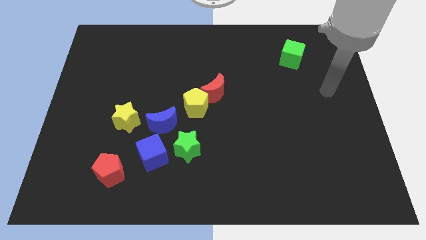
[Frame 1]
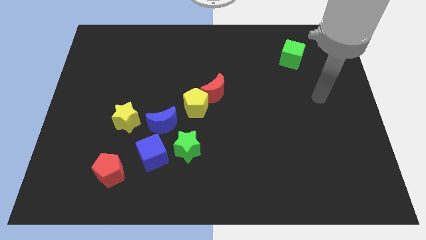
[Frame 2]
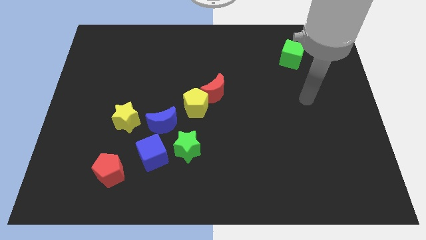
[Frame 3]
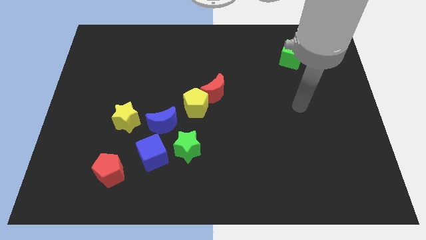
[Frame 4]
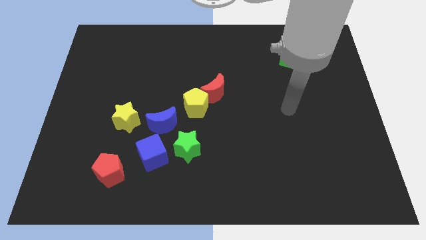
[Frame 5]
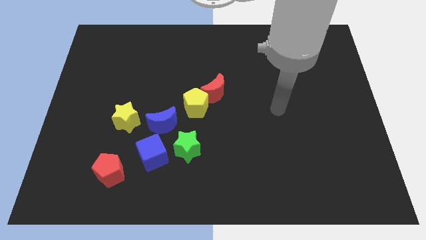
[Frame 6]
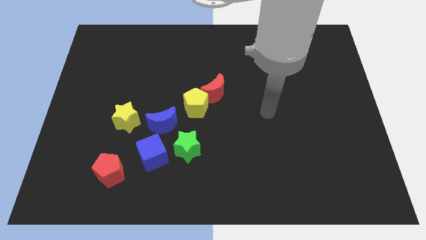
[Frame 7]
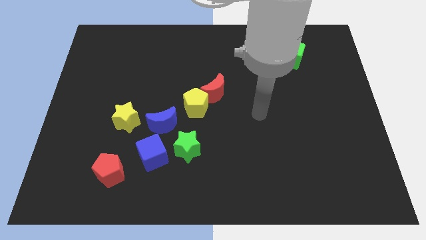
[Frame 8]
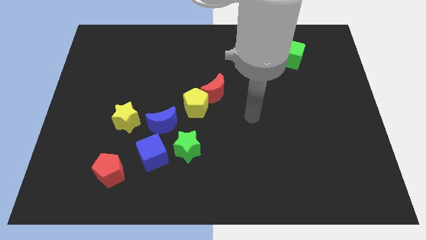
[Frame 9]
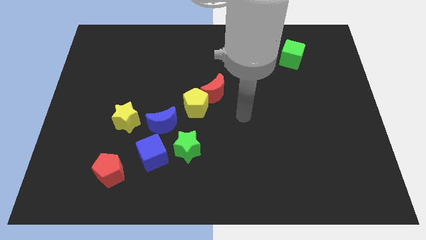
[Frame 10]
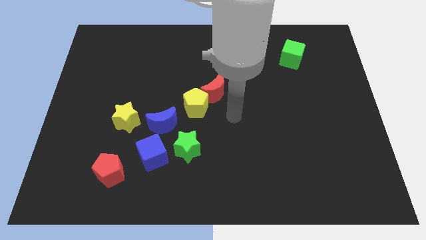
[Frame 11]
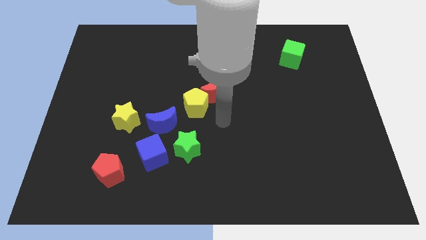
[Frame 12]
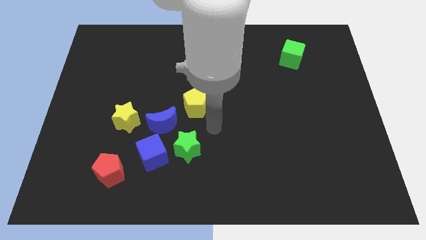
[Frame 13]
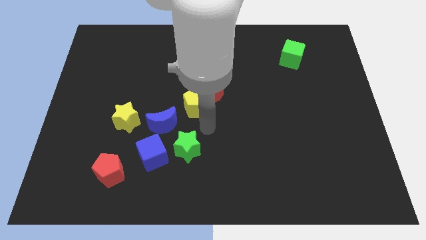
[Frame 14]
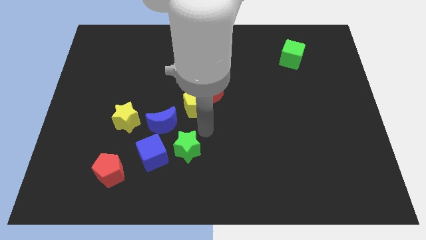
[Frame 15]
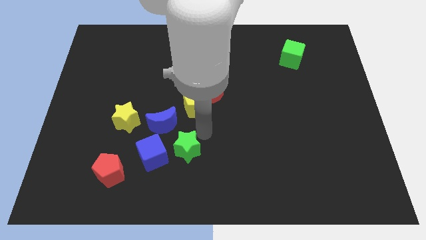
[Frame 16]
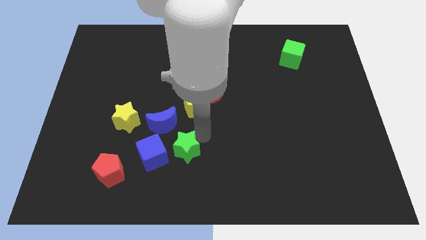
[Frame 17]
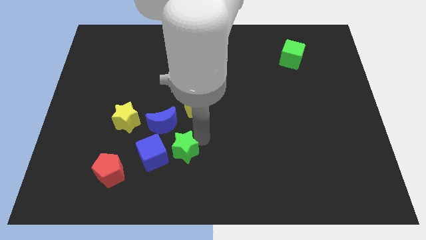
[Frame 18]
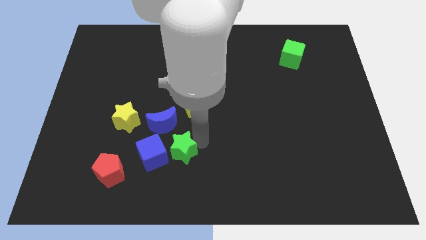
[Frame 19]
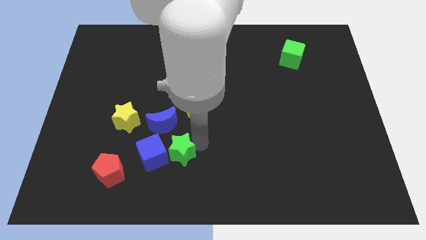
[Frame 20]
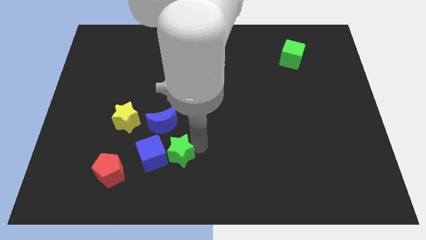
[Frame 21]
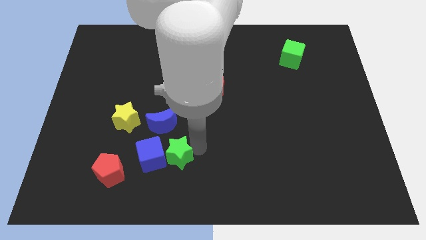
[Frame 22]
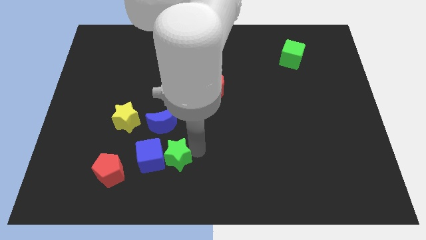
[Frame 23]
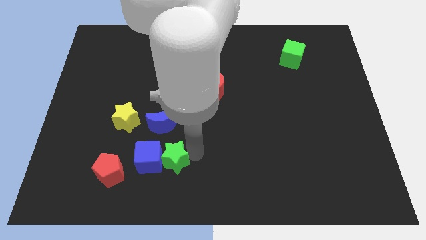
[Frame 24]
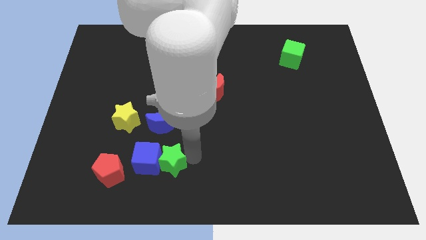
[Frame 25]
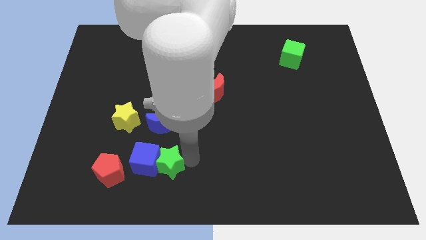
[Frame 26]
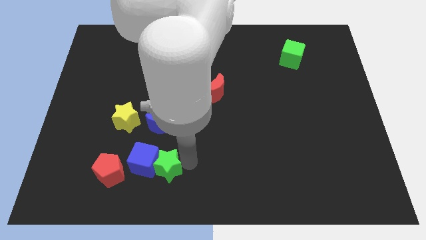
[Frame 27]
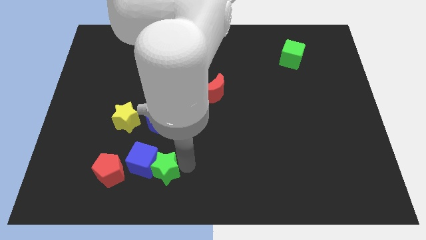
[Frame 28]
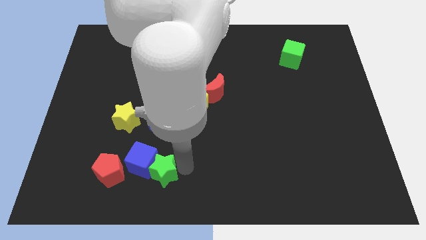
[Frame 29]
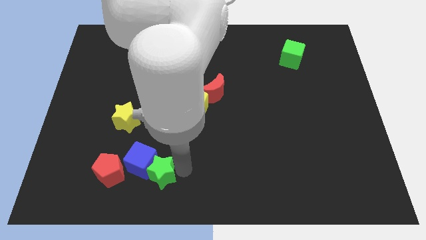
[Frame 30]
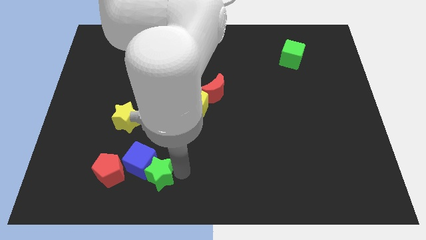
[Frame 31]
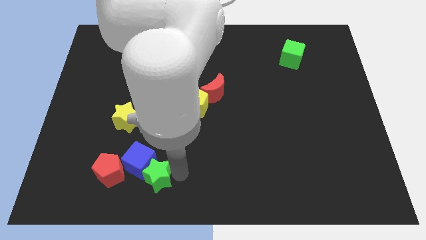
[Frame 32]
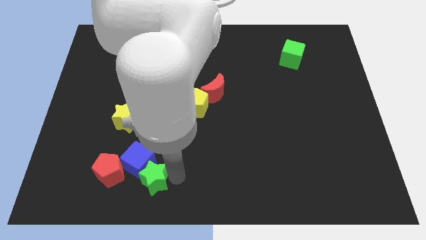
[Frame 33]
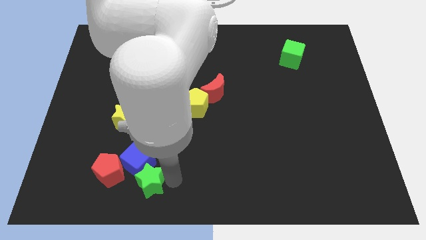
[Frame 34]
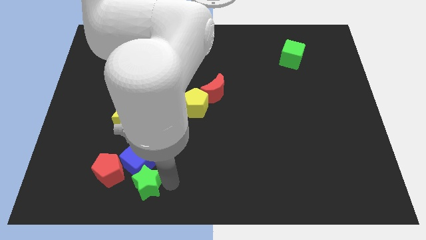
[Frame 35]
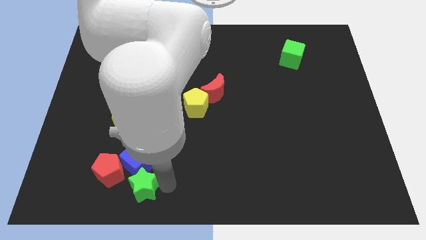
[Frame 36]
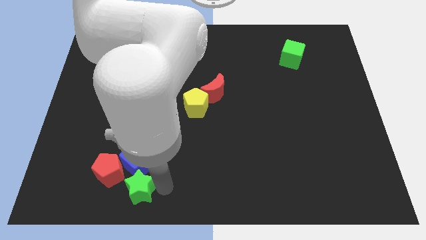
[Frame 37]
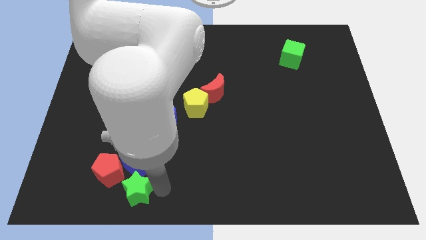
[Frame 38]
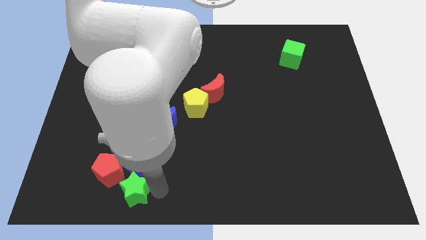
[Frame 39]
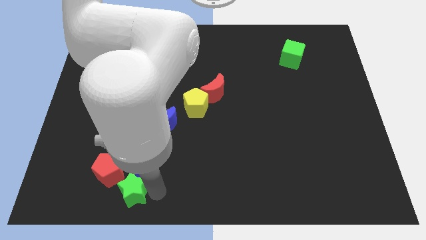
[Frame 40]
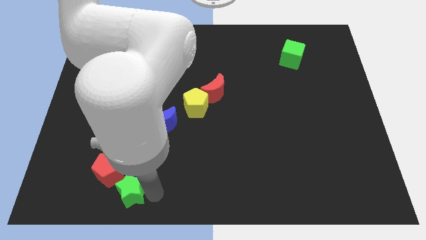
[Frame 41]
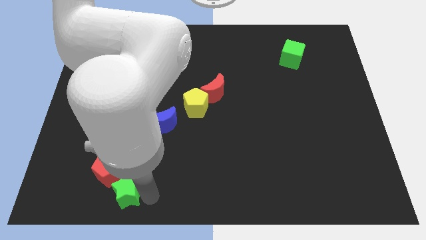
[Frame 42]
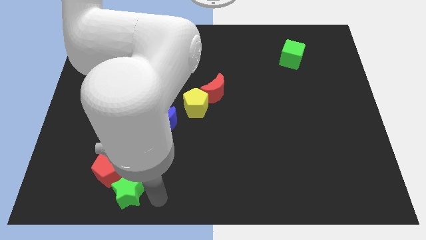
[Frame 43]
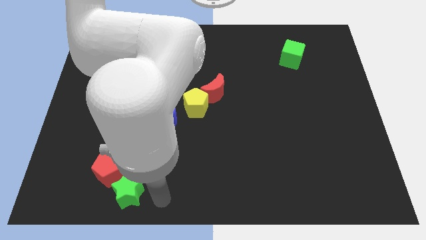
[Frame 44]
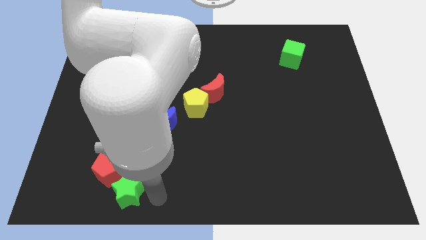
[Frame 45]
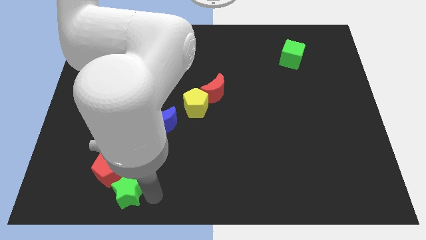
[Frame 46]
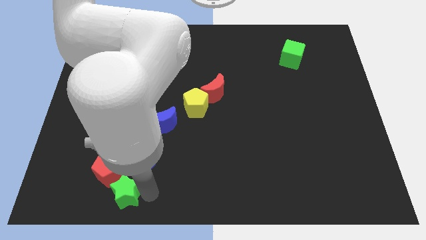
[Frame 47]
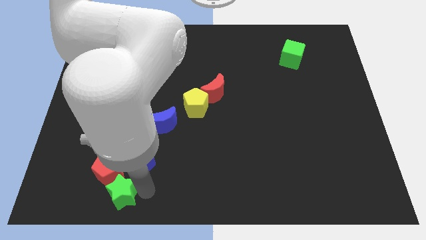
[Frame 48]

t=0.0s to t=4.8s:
slightly slide the green star to the left

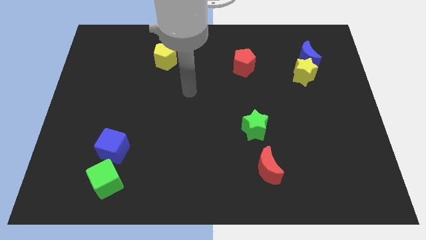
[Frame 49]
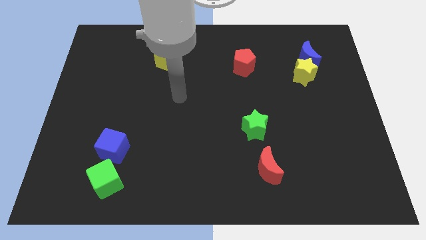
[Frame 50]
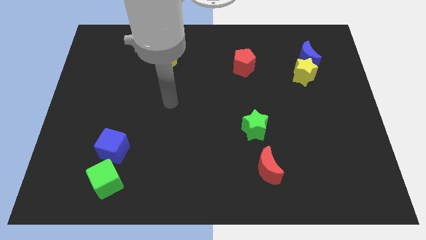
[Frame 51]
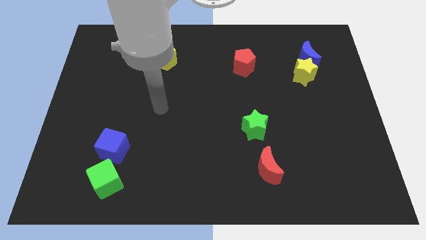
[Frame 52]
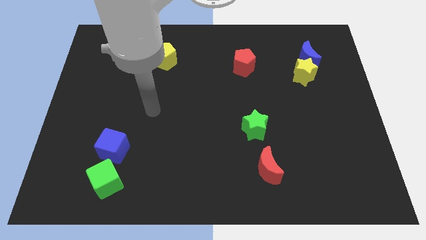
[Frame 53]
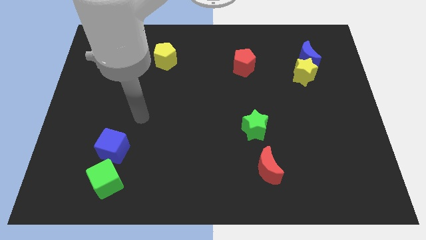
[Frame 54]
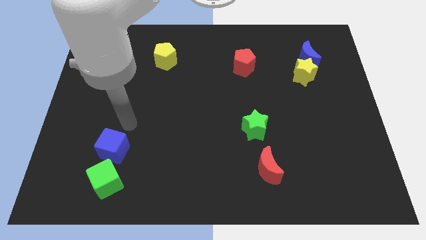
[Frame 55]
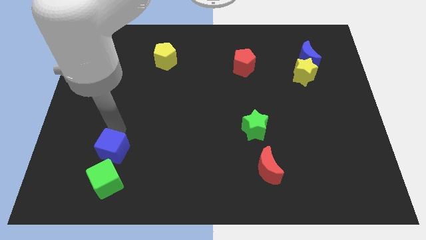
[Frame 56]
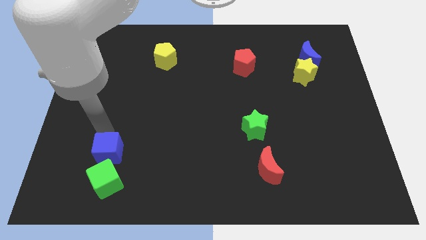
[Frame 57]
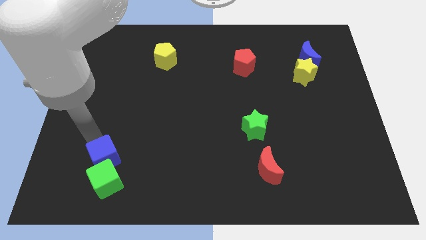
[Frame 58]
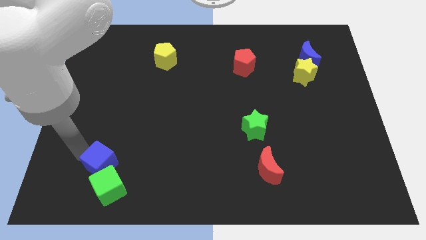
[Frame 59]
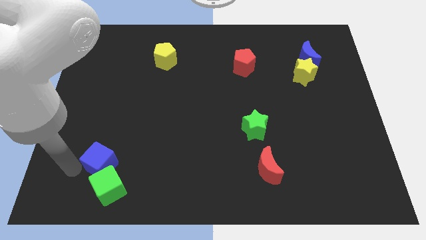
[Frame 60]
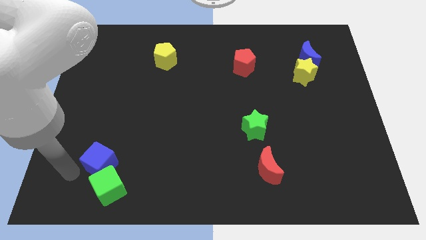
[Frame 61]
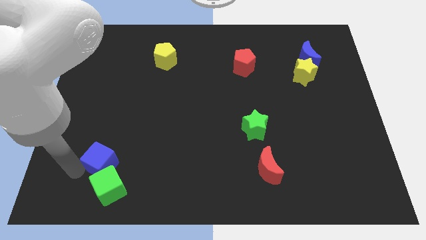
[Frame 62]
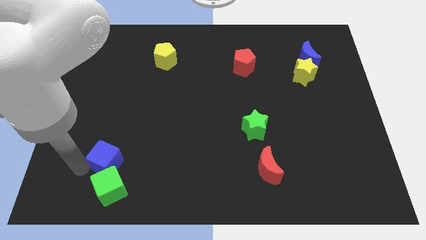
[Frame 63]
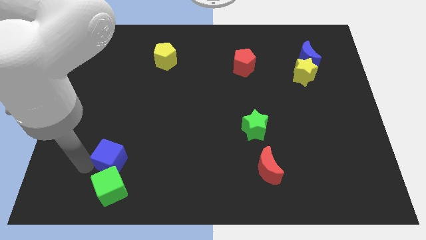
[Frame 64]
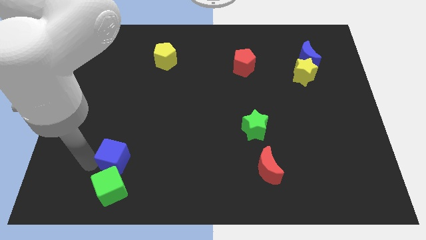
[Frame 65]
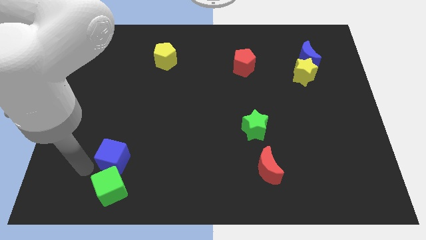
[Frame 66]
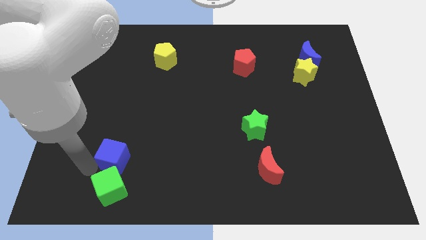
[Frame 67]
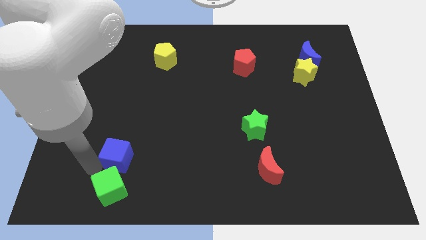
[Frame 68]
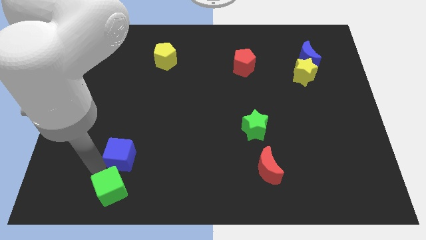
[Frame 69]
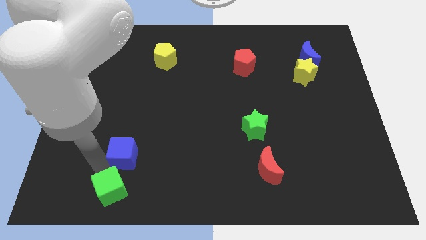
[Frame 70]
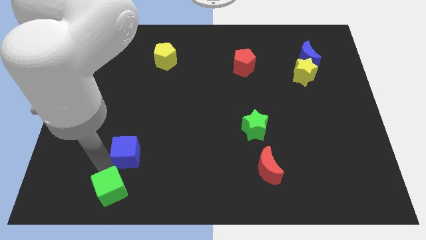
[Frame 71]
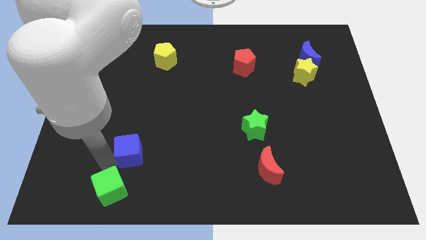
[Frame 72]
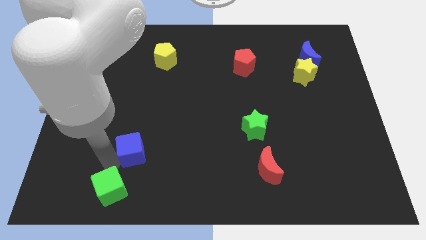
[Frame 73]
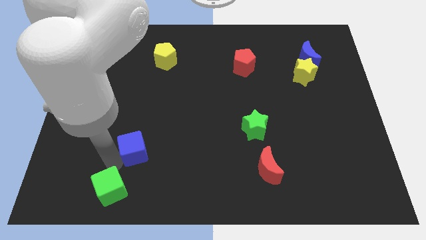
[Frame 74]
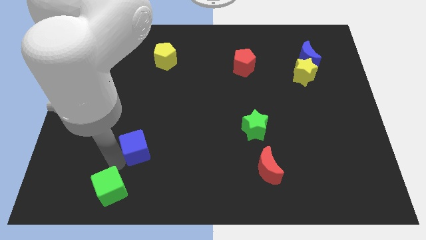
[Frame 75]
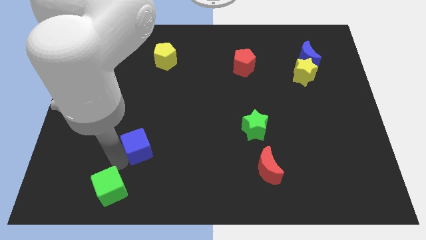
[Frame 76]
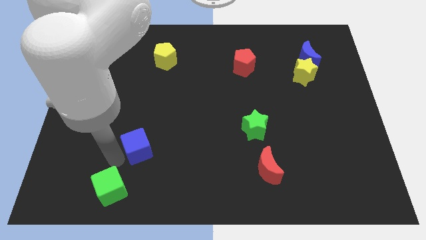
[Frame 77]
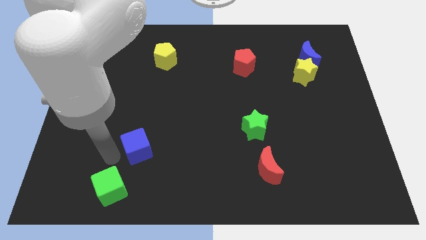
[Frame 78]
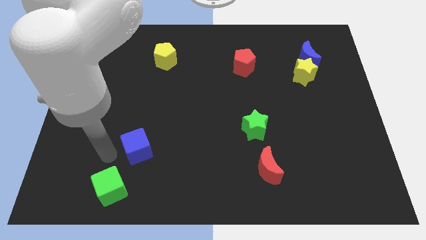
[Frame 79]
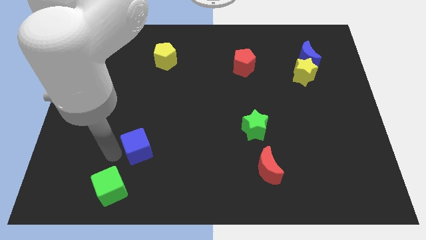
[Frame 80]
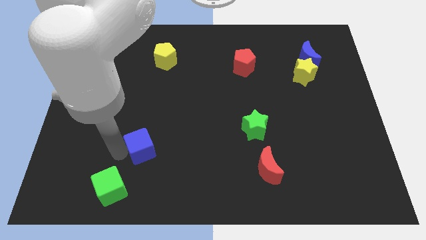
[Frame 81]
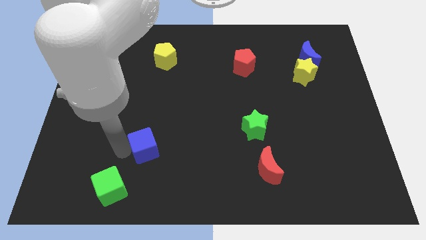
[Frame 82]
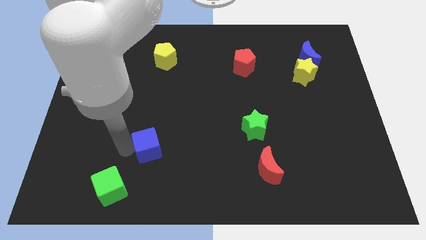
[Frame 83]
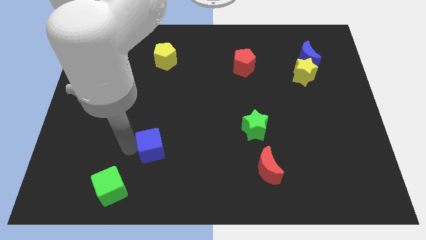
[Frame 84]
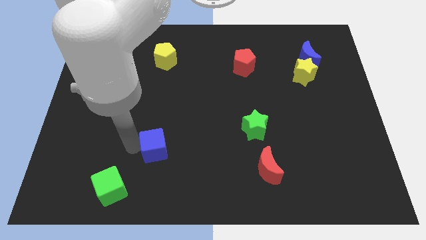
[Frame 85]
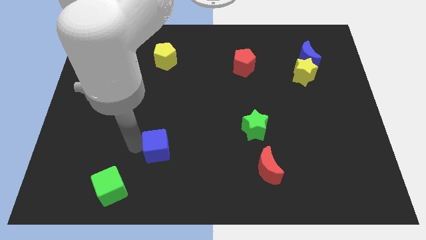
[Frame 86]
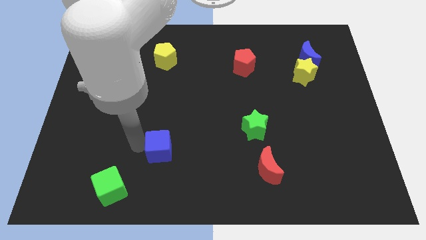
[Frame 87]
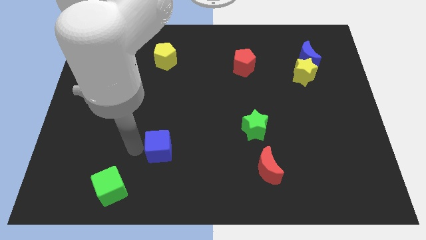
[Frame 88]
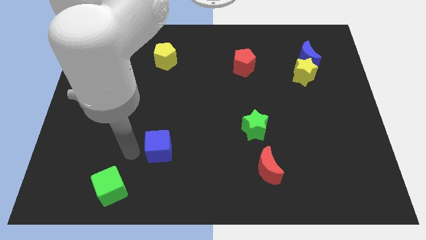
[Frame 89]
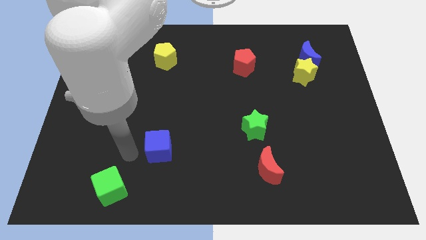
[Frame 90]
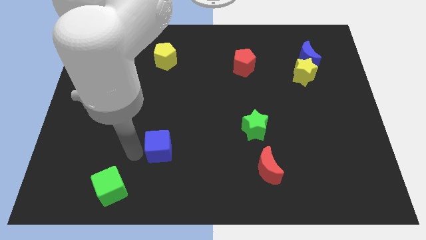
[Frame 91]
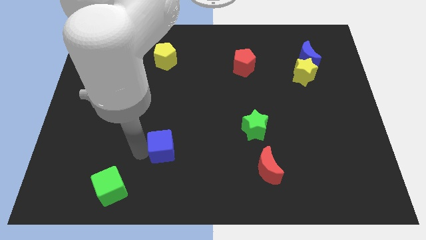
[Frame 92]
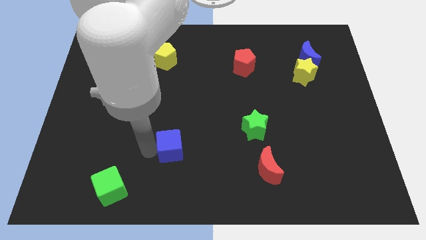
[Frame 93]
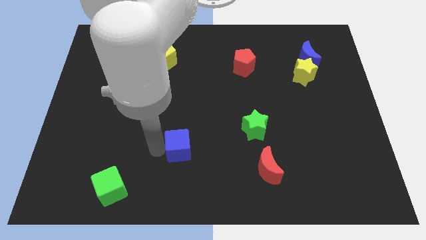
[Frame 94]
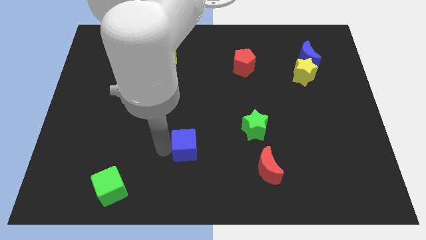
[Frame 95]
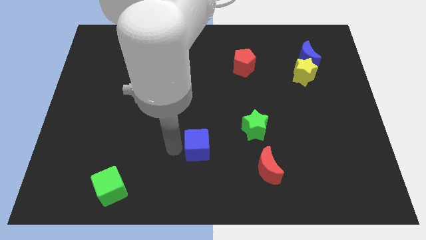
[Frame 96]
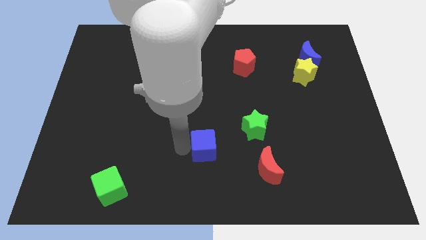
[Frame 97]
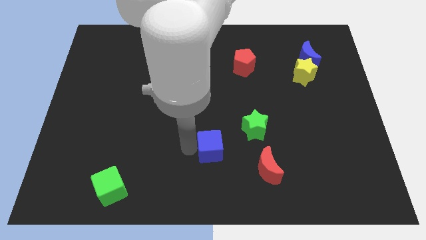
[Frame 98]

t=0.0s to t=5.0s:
push the blue cube right
